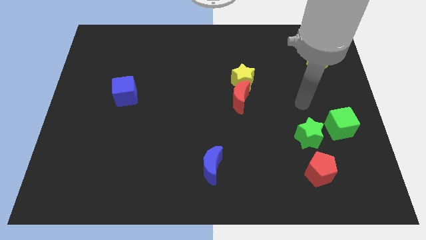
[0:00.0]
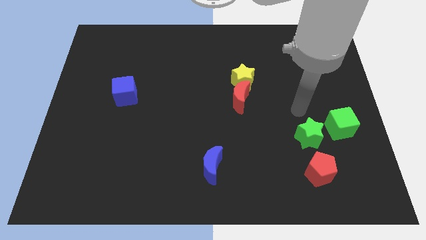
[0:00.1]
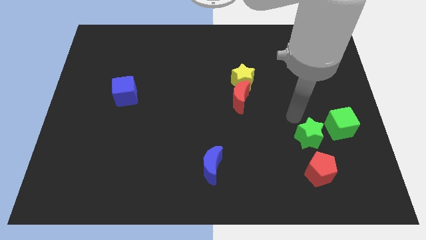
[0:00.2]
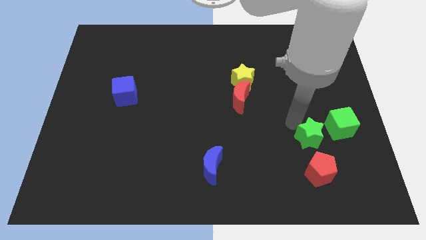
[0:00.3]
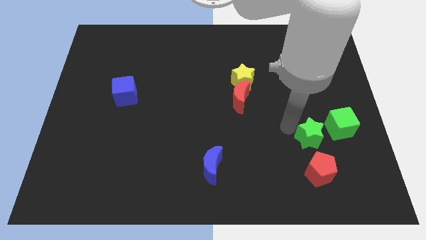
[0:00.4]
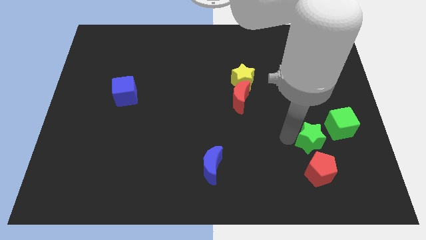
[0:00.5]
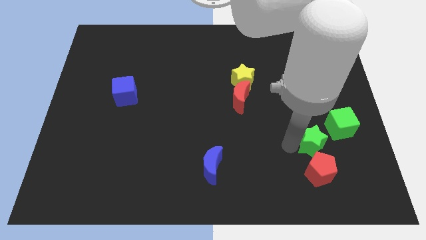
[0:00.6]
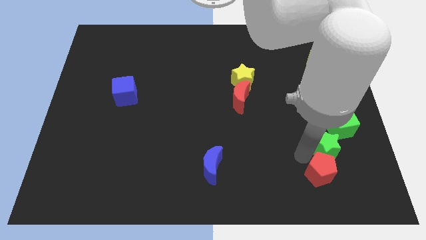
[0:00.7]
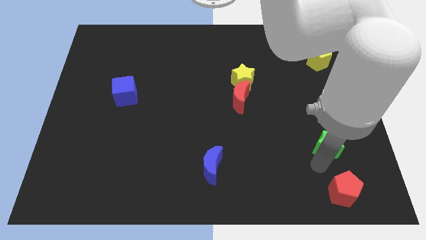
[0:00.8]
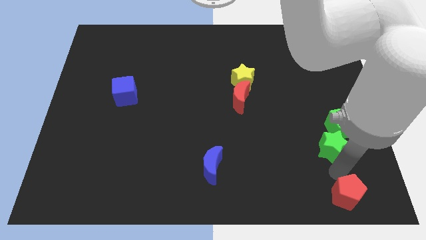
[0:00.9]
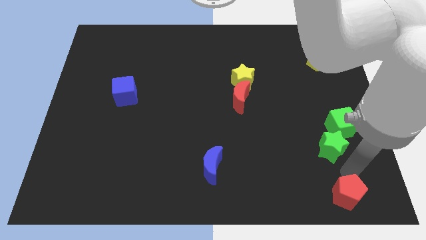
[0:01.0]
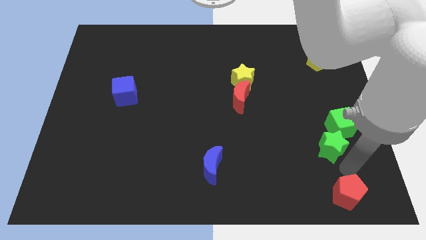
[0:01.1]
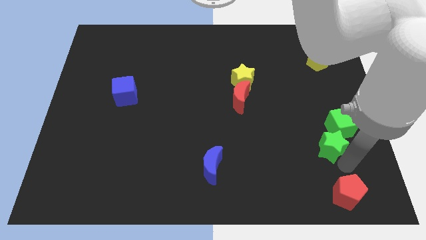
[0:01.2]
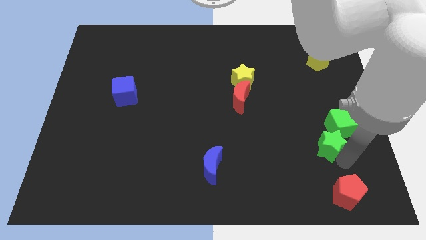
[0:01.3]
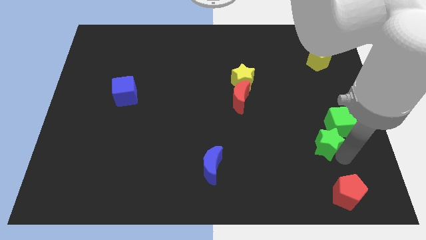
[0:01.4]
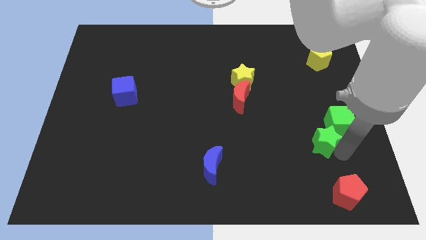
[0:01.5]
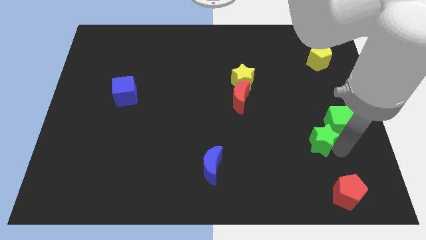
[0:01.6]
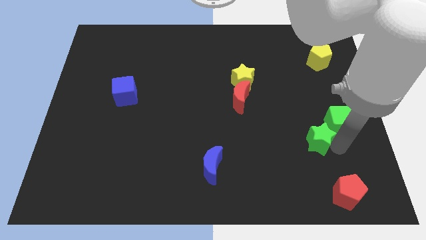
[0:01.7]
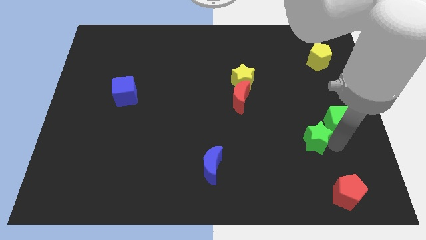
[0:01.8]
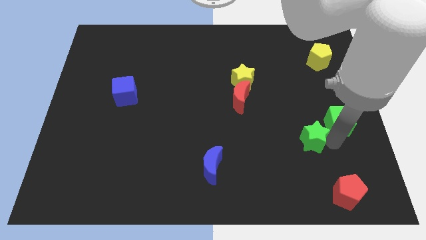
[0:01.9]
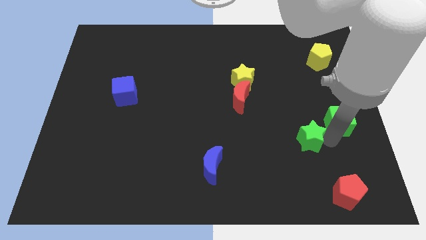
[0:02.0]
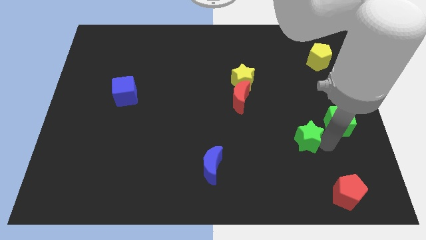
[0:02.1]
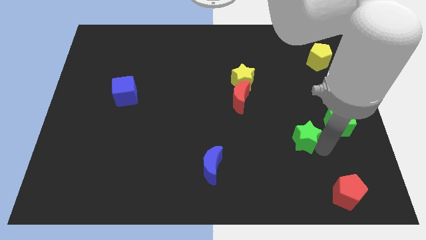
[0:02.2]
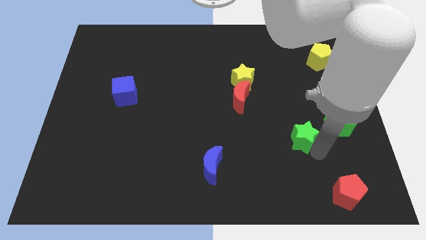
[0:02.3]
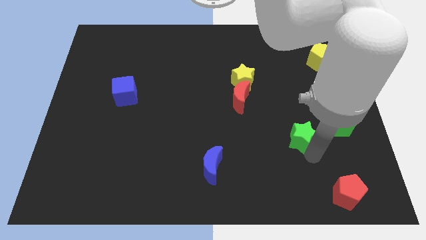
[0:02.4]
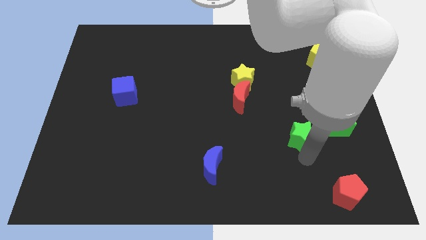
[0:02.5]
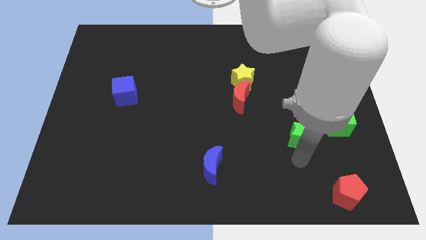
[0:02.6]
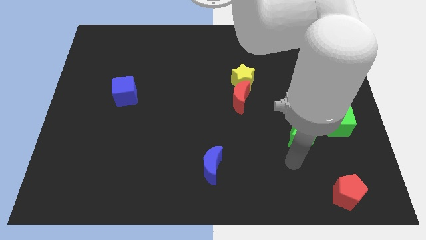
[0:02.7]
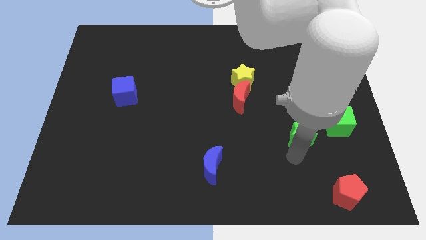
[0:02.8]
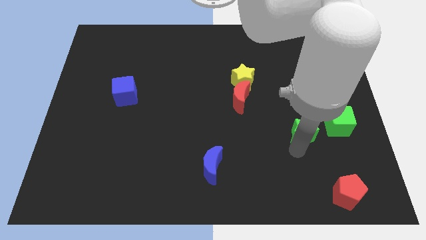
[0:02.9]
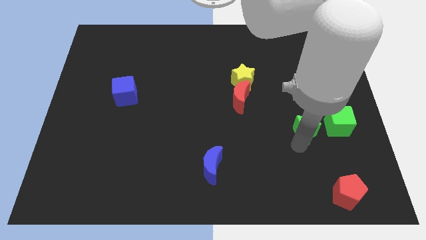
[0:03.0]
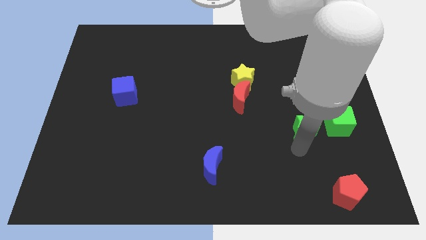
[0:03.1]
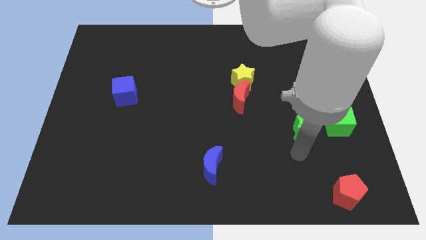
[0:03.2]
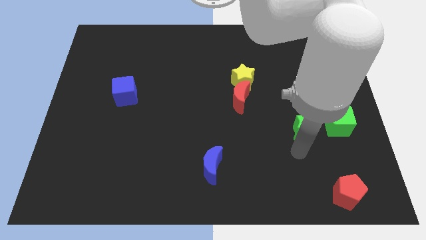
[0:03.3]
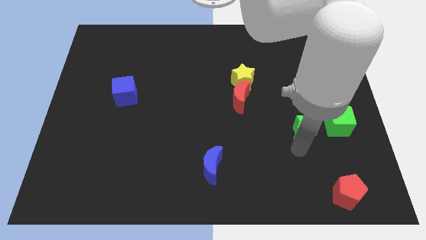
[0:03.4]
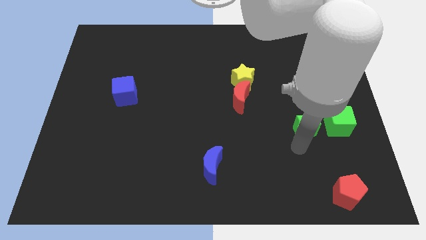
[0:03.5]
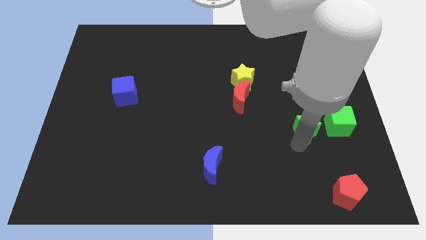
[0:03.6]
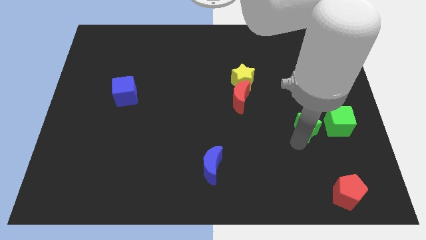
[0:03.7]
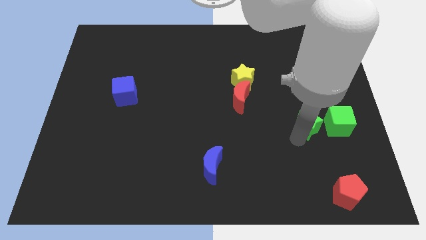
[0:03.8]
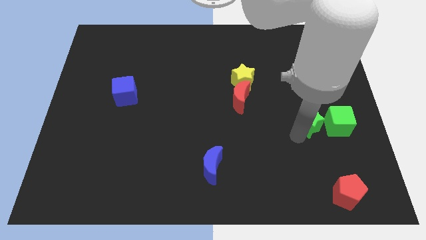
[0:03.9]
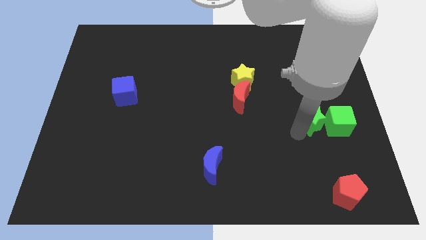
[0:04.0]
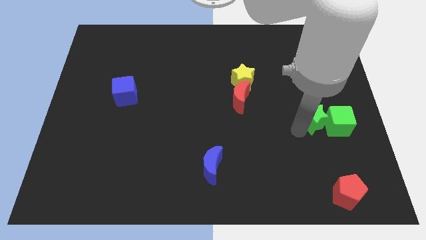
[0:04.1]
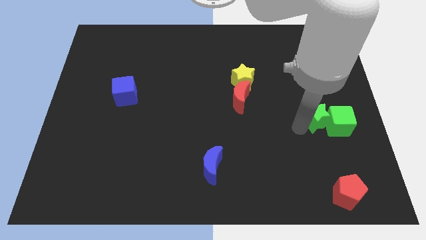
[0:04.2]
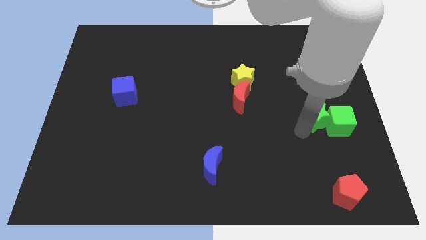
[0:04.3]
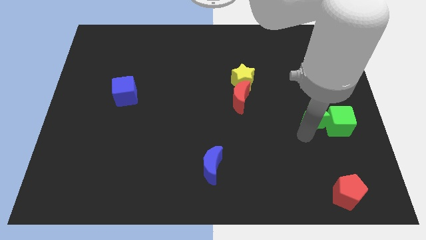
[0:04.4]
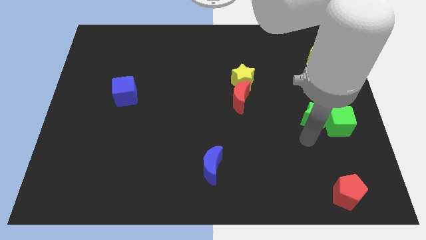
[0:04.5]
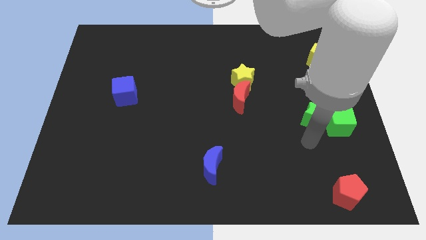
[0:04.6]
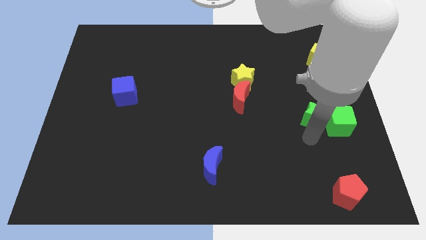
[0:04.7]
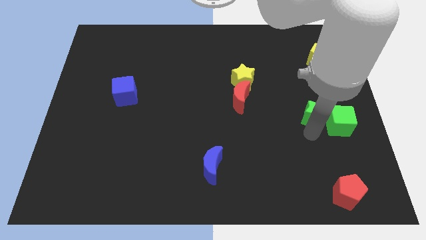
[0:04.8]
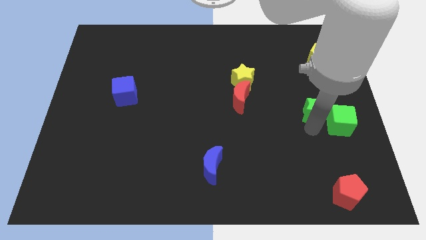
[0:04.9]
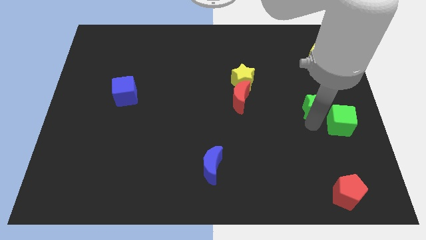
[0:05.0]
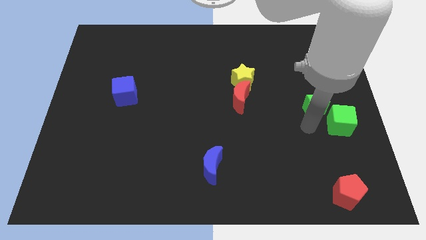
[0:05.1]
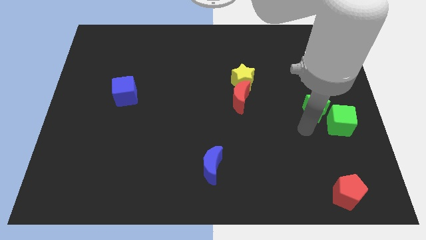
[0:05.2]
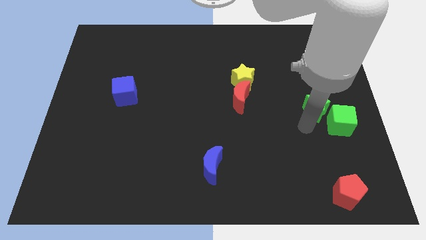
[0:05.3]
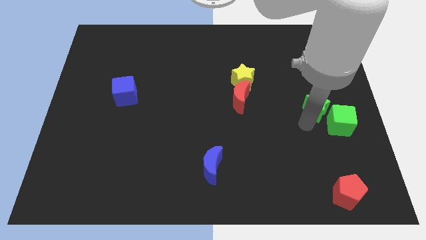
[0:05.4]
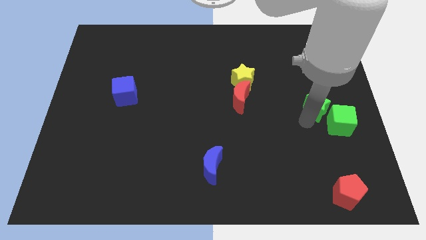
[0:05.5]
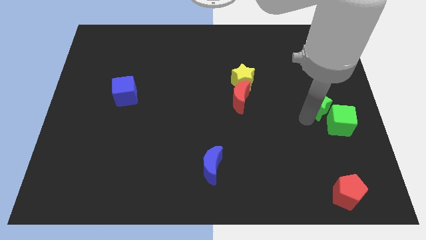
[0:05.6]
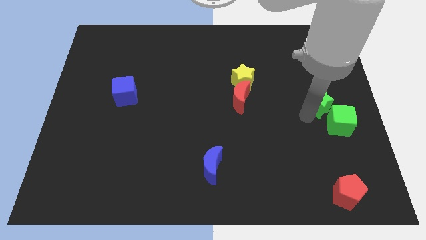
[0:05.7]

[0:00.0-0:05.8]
push the green star to the bottom side of the yellow pentagon

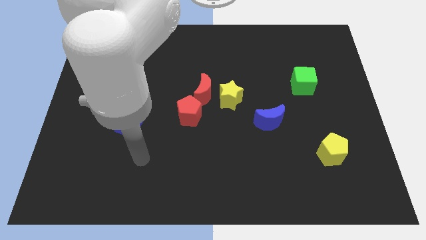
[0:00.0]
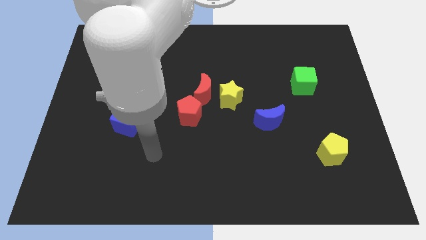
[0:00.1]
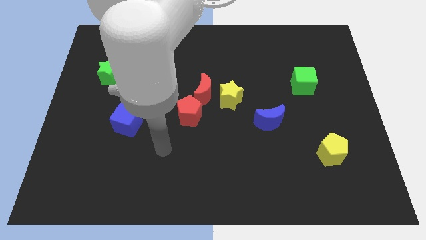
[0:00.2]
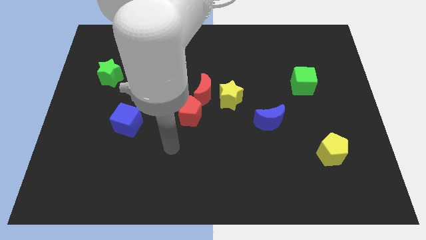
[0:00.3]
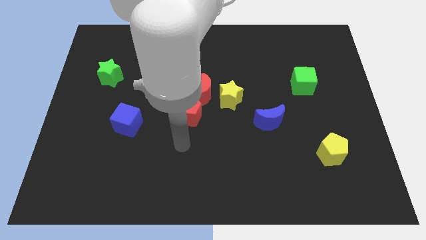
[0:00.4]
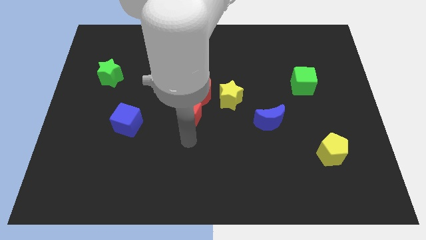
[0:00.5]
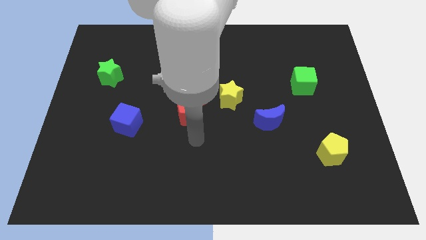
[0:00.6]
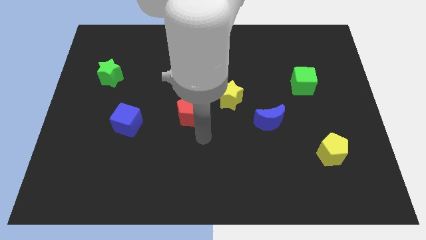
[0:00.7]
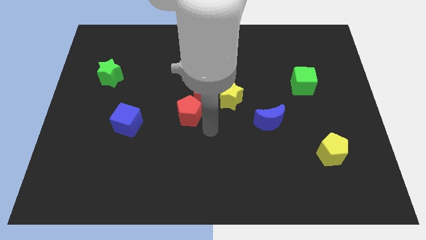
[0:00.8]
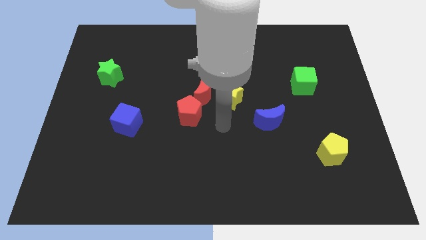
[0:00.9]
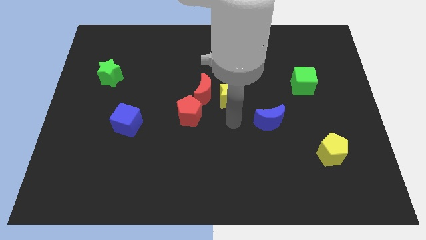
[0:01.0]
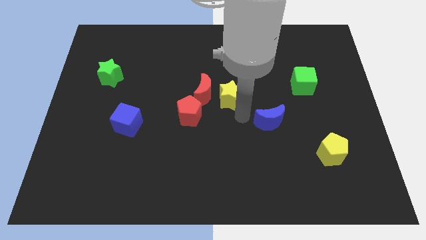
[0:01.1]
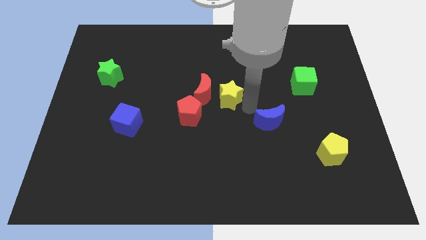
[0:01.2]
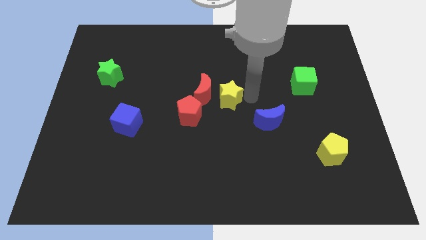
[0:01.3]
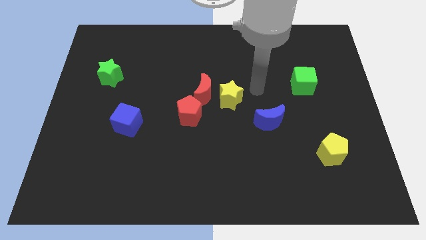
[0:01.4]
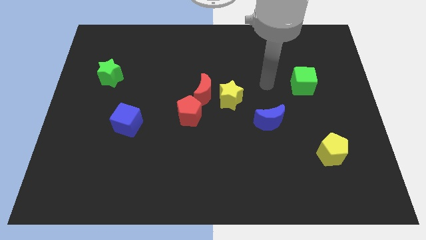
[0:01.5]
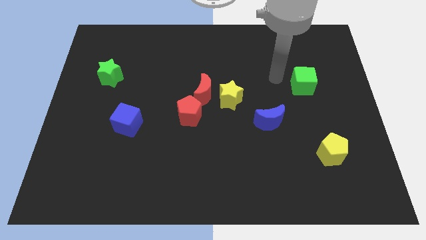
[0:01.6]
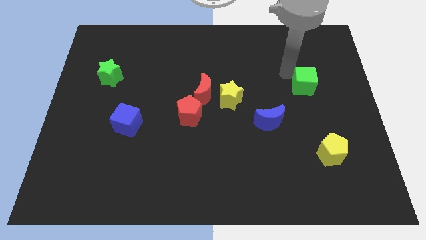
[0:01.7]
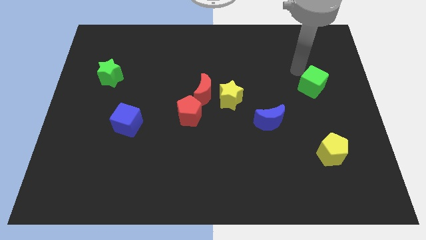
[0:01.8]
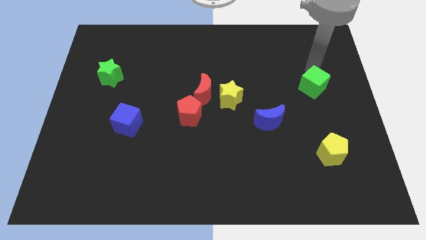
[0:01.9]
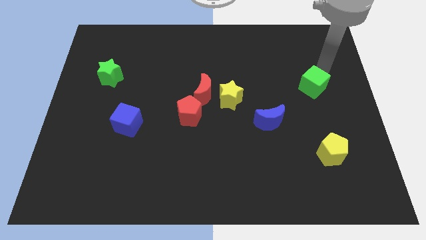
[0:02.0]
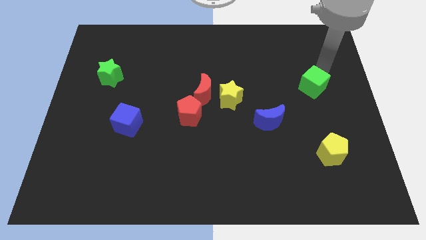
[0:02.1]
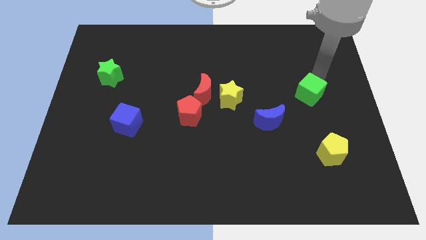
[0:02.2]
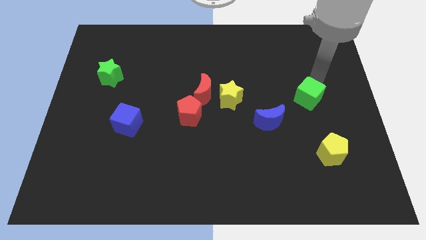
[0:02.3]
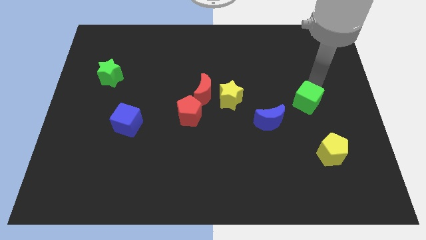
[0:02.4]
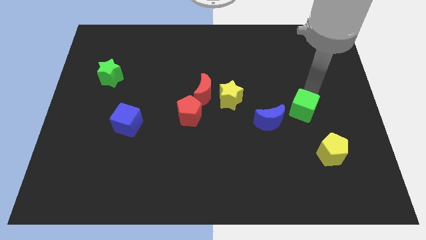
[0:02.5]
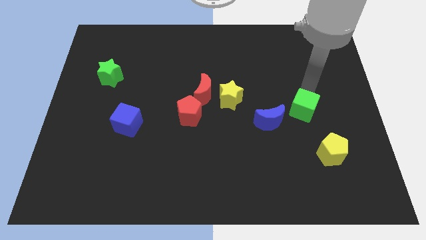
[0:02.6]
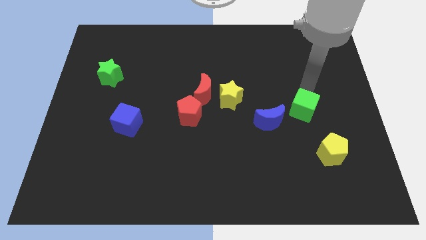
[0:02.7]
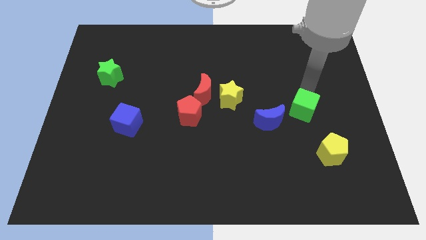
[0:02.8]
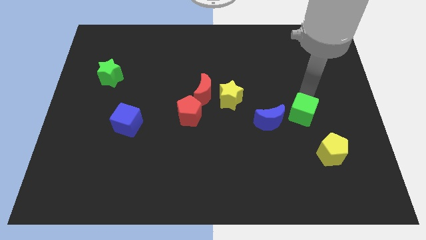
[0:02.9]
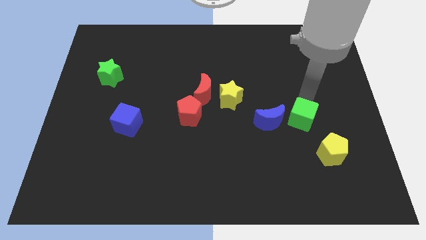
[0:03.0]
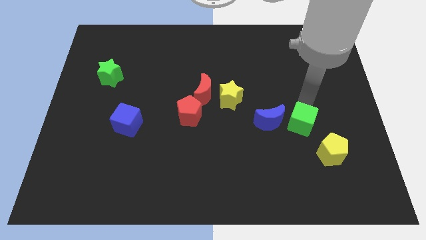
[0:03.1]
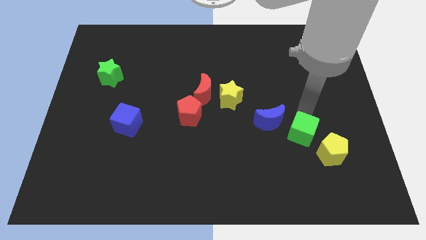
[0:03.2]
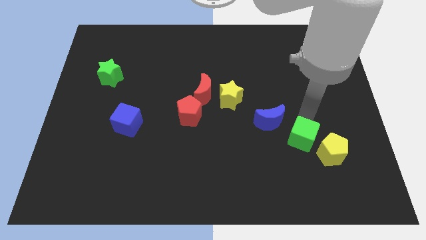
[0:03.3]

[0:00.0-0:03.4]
move the green cube just left of the yellow pentagon
